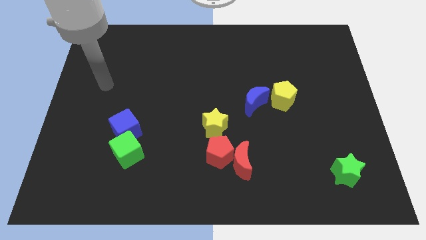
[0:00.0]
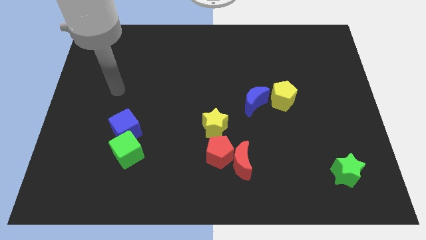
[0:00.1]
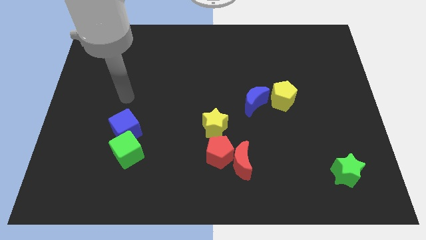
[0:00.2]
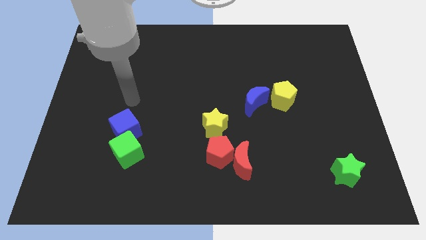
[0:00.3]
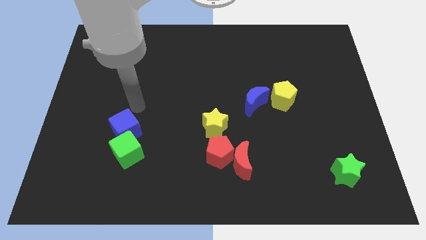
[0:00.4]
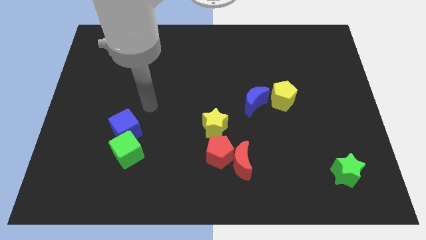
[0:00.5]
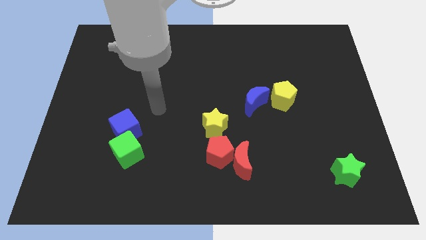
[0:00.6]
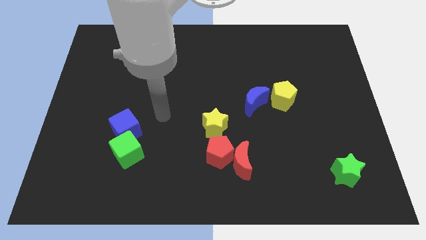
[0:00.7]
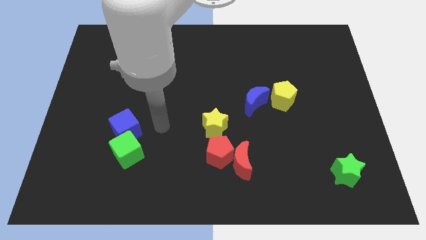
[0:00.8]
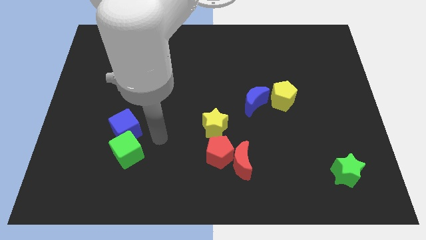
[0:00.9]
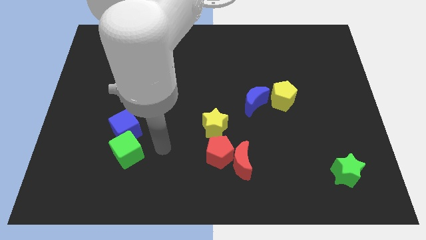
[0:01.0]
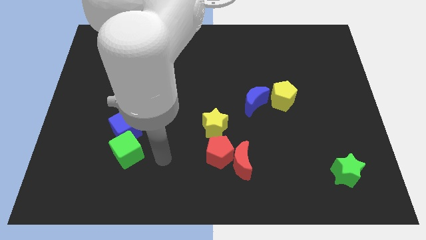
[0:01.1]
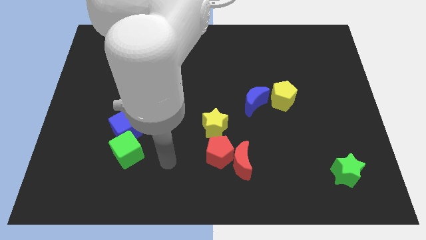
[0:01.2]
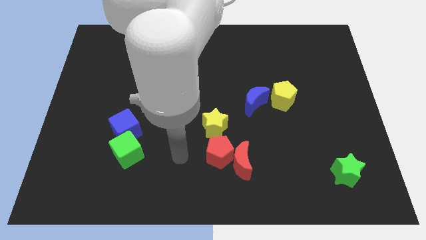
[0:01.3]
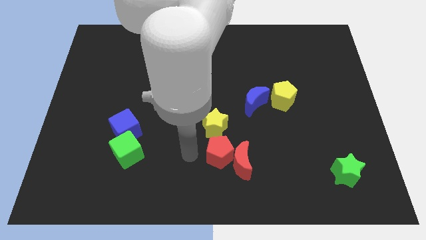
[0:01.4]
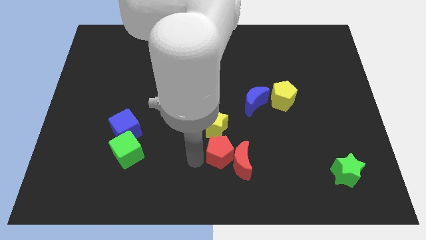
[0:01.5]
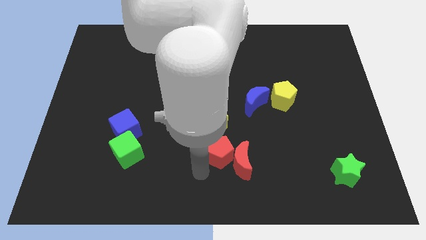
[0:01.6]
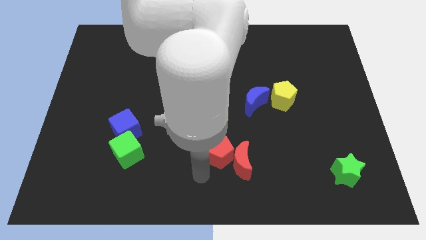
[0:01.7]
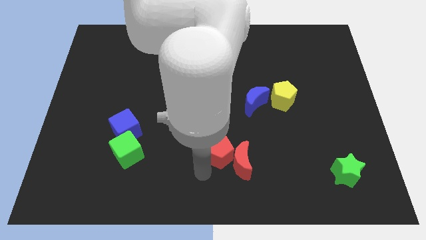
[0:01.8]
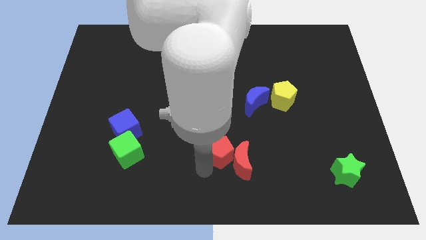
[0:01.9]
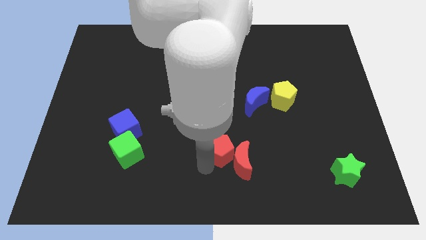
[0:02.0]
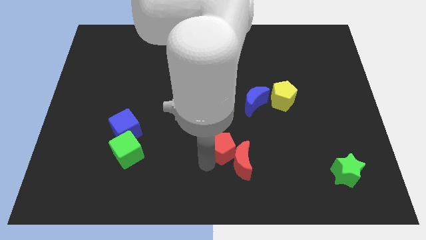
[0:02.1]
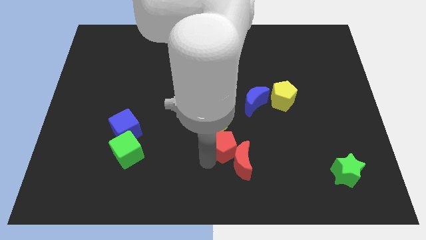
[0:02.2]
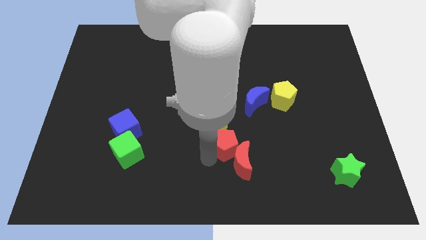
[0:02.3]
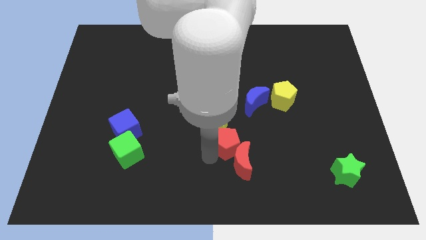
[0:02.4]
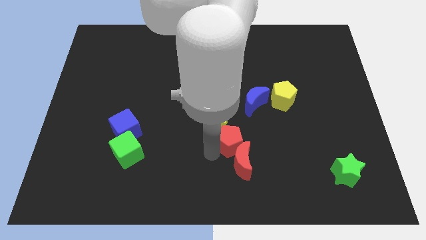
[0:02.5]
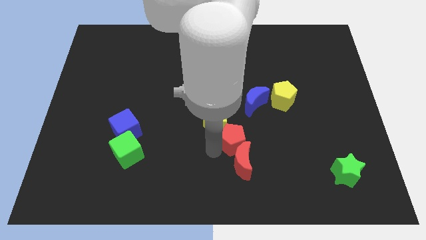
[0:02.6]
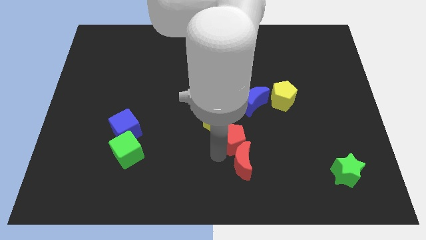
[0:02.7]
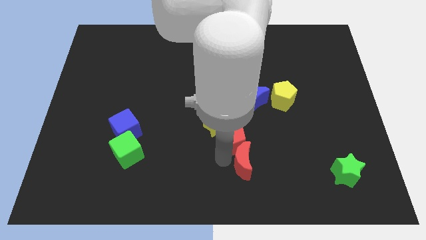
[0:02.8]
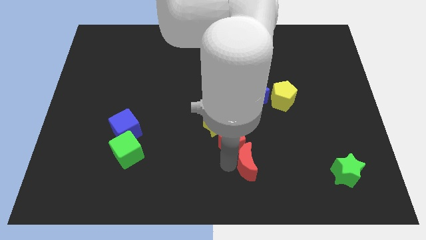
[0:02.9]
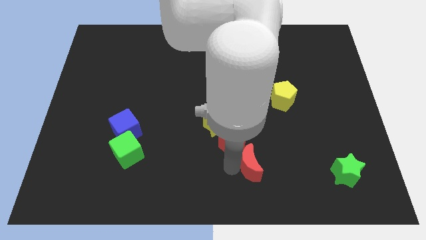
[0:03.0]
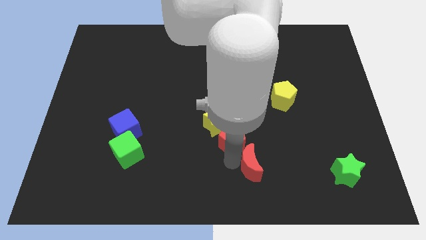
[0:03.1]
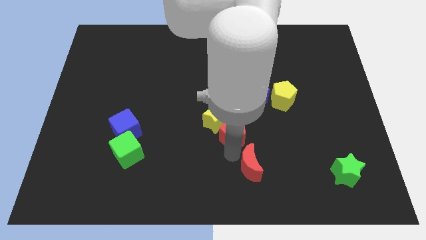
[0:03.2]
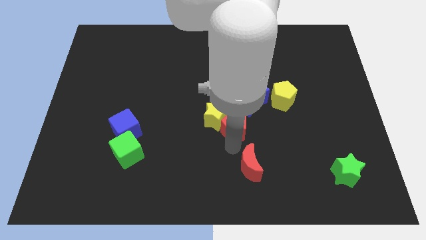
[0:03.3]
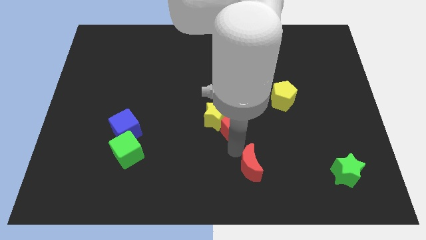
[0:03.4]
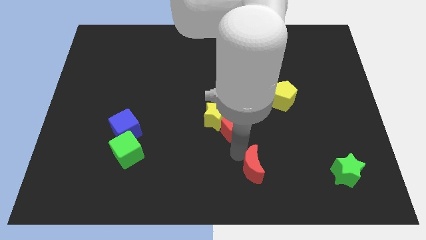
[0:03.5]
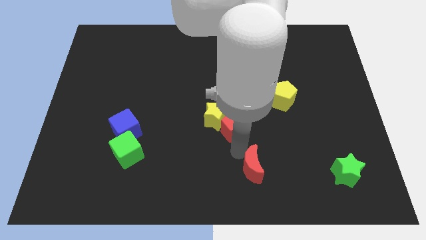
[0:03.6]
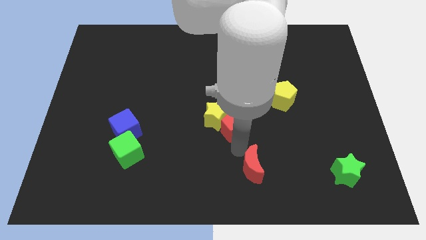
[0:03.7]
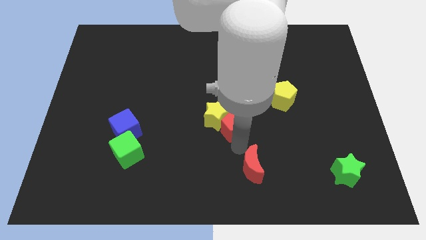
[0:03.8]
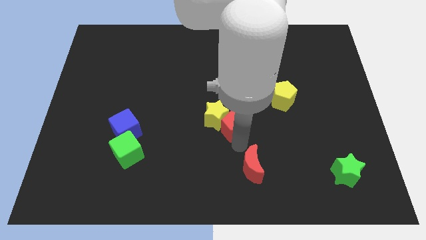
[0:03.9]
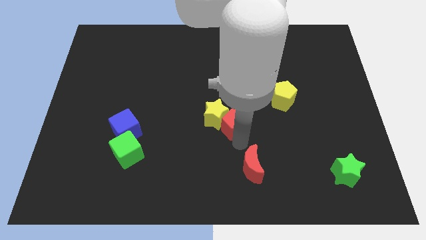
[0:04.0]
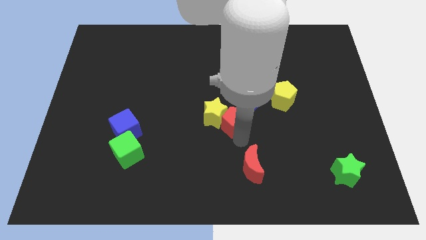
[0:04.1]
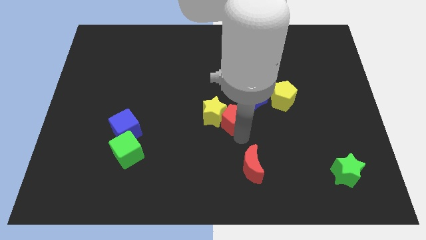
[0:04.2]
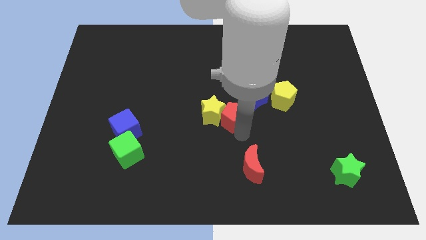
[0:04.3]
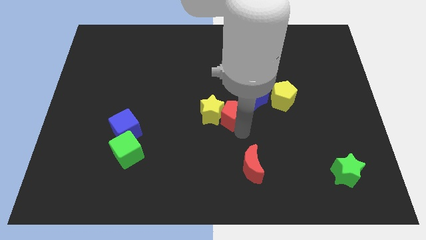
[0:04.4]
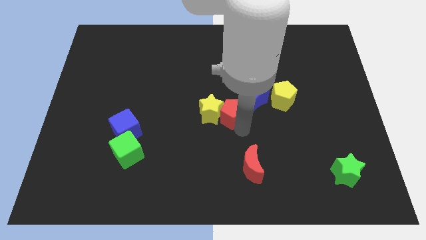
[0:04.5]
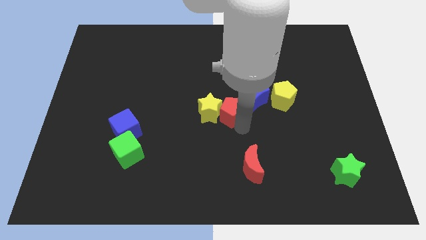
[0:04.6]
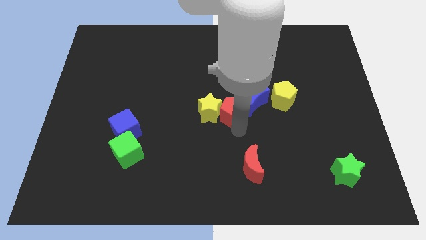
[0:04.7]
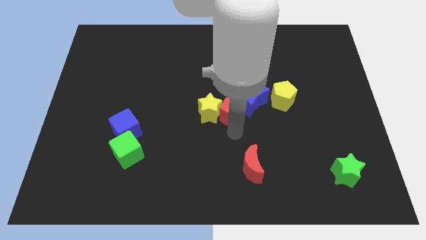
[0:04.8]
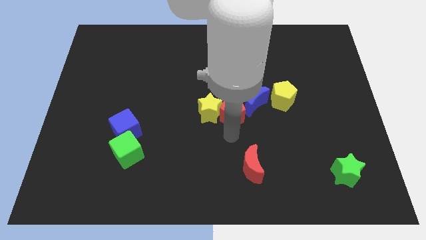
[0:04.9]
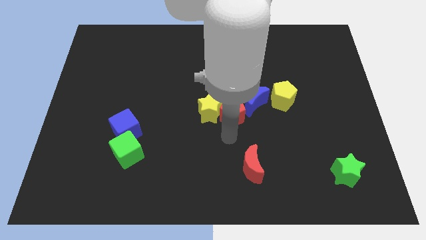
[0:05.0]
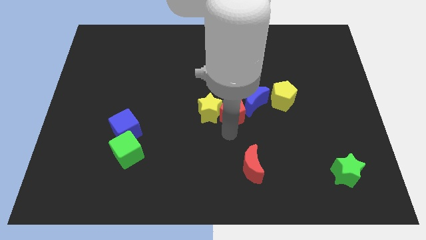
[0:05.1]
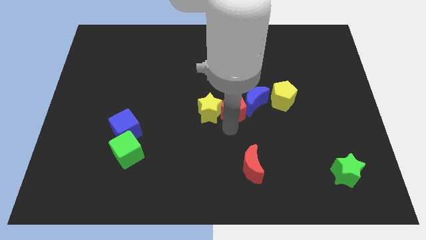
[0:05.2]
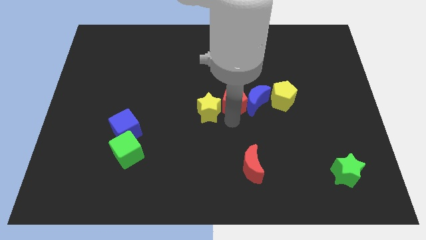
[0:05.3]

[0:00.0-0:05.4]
slide the red pentagon diagonally up and to the left of the blue moon

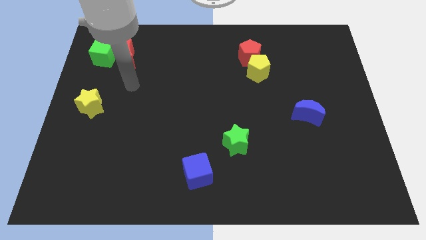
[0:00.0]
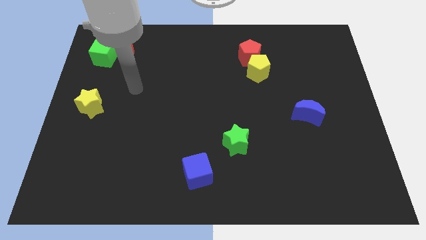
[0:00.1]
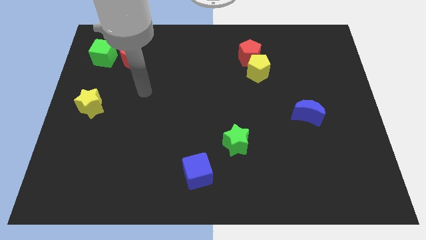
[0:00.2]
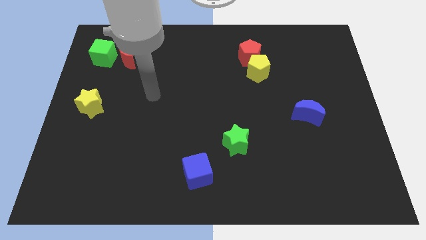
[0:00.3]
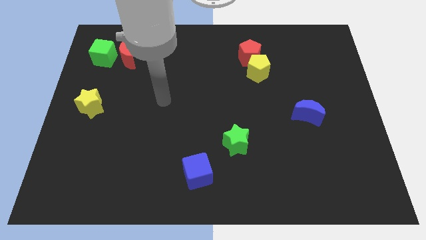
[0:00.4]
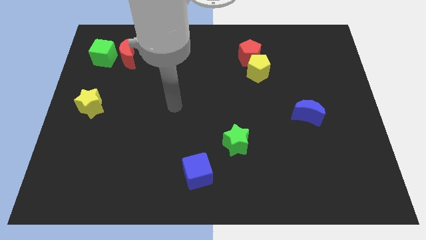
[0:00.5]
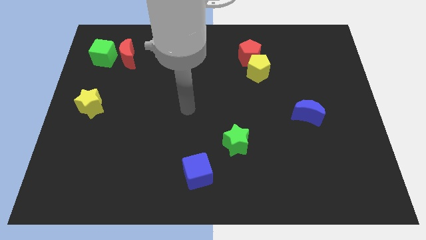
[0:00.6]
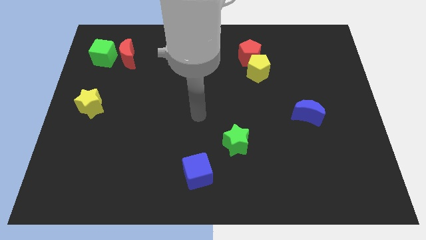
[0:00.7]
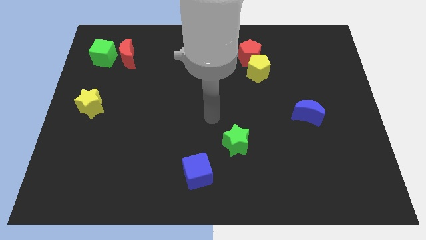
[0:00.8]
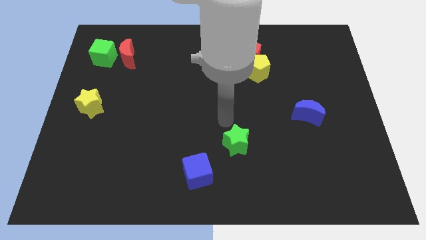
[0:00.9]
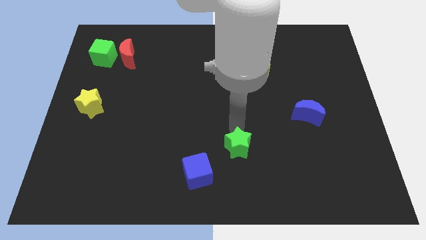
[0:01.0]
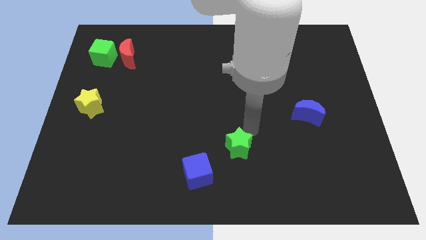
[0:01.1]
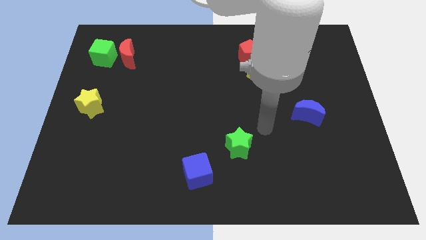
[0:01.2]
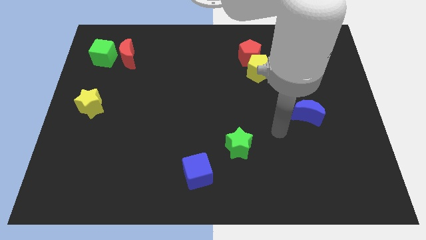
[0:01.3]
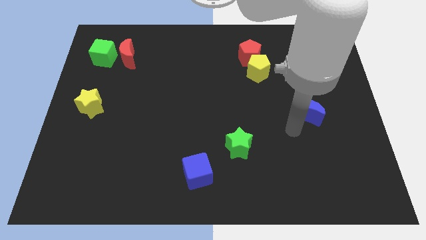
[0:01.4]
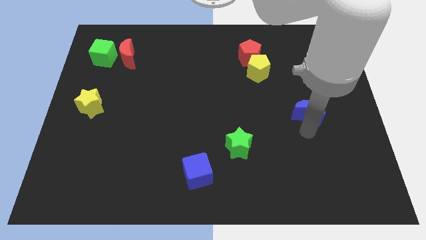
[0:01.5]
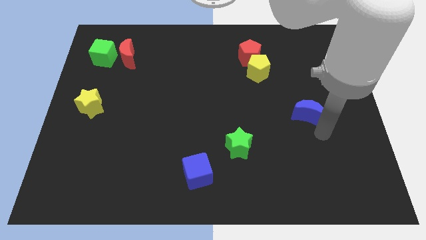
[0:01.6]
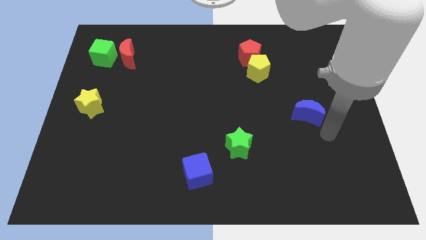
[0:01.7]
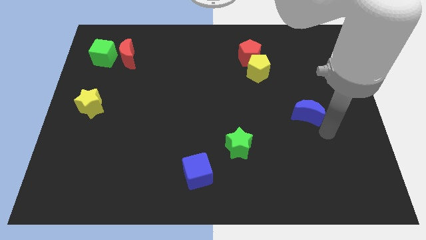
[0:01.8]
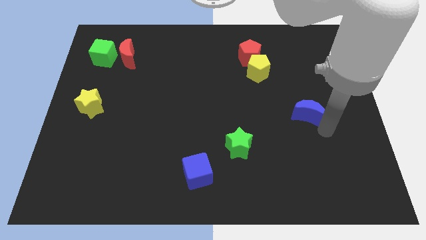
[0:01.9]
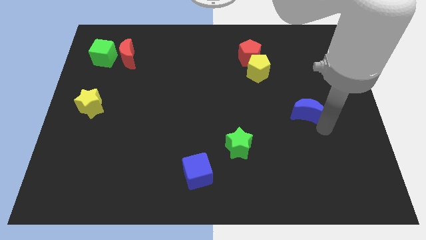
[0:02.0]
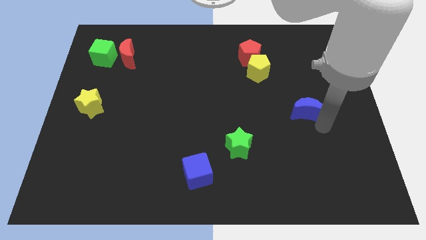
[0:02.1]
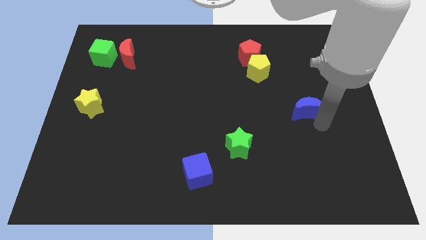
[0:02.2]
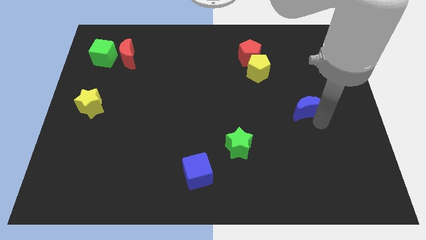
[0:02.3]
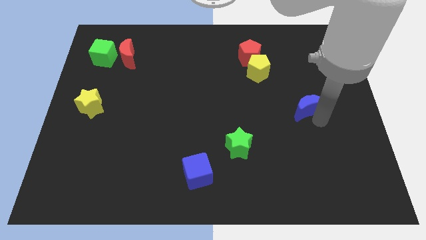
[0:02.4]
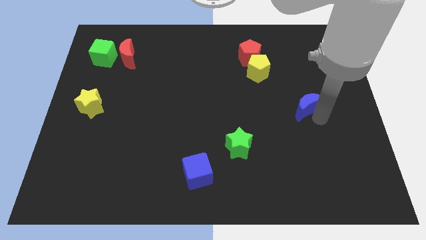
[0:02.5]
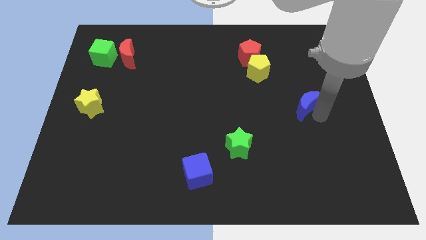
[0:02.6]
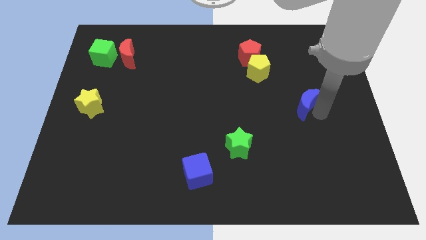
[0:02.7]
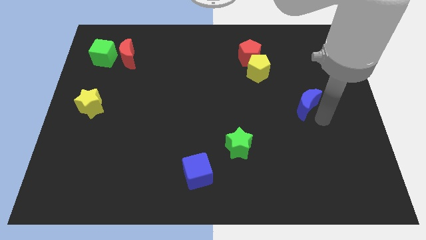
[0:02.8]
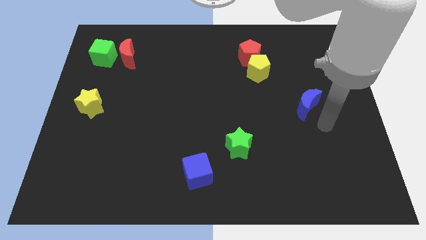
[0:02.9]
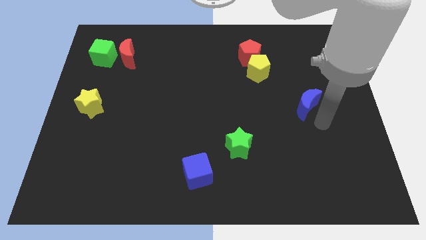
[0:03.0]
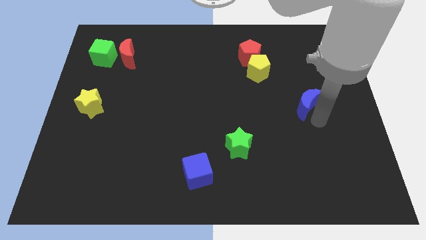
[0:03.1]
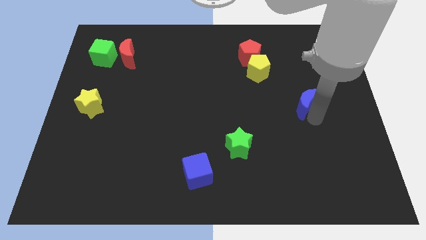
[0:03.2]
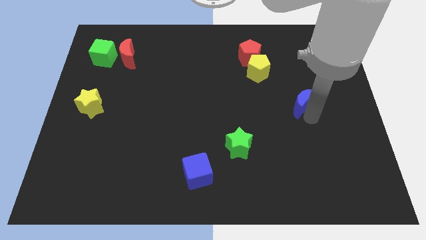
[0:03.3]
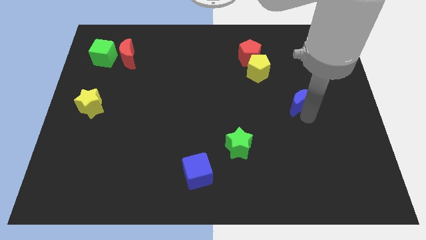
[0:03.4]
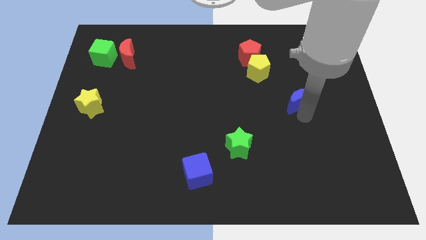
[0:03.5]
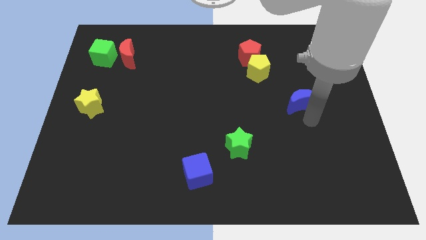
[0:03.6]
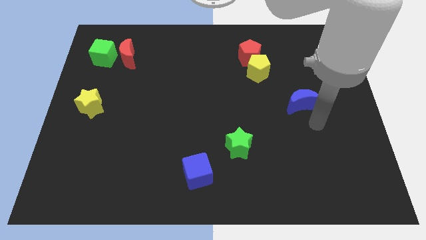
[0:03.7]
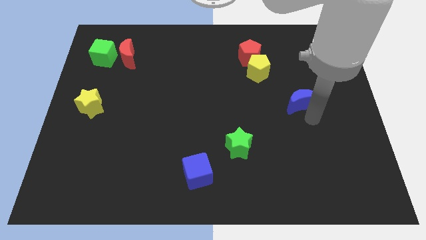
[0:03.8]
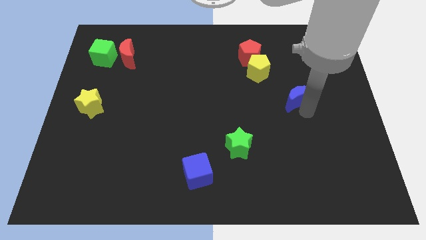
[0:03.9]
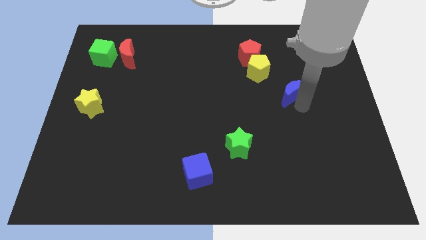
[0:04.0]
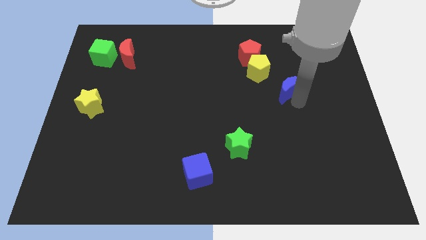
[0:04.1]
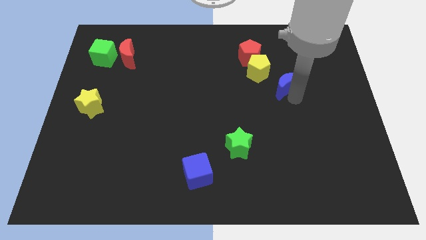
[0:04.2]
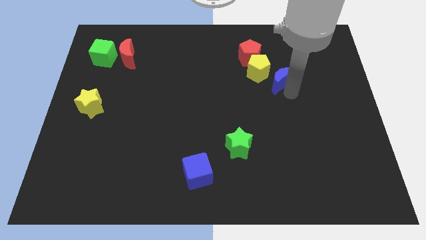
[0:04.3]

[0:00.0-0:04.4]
push the blue moon to the bottom right side of the red pentagon
